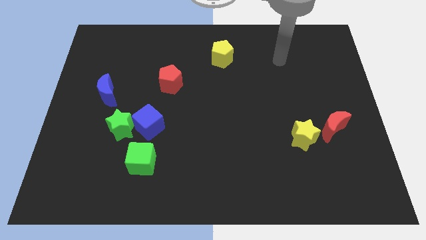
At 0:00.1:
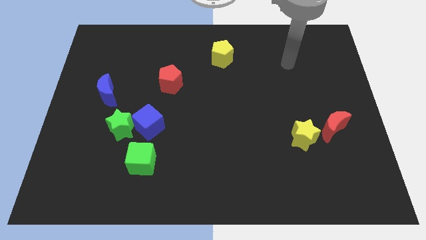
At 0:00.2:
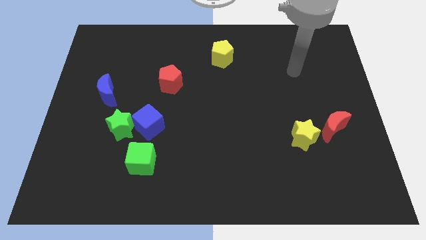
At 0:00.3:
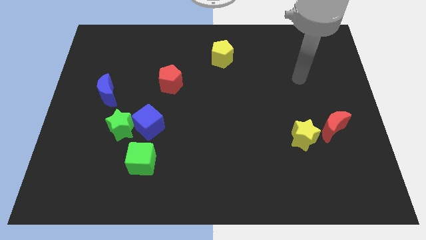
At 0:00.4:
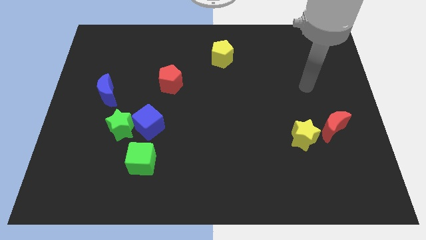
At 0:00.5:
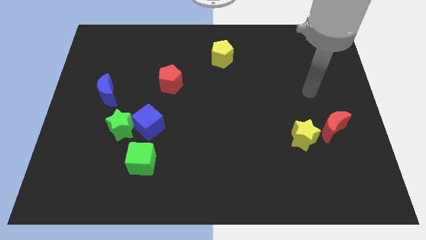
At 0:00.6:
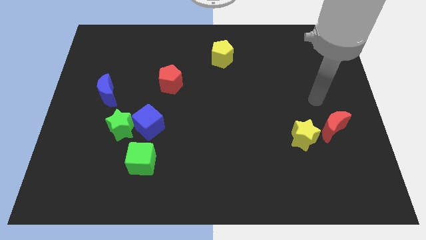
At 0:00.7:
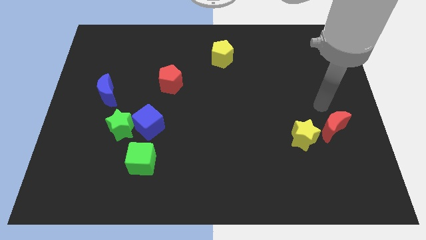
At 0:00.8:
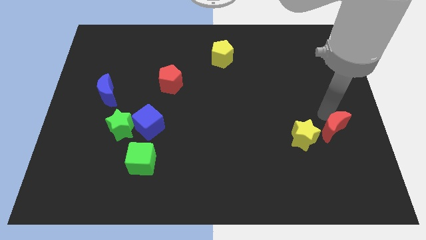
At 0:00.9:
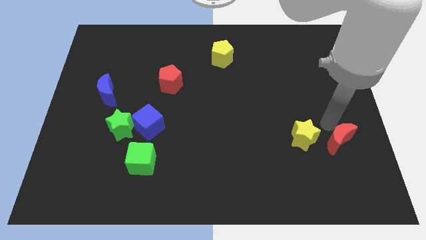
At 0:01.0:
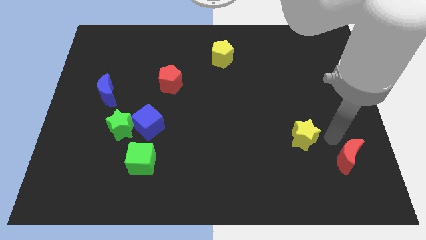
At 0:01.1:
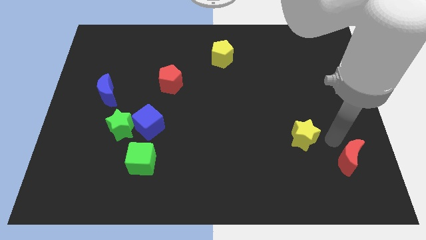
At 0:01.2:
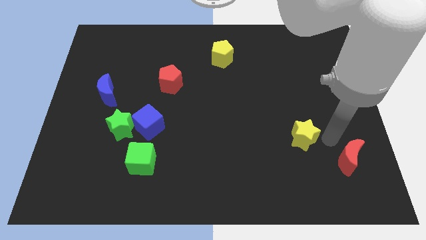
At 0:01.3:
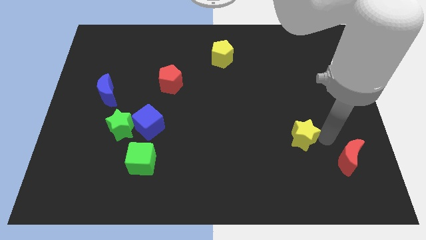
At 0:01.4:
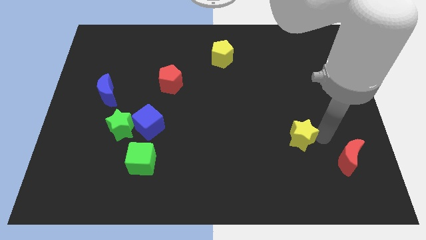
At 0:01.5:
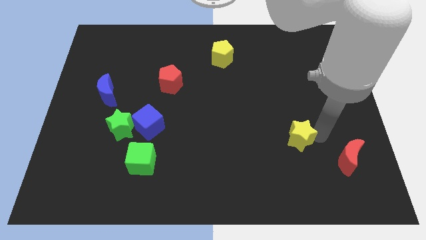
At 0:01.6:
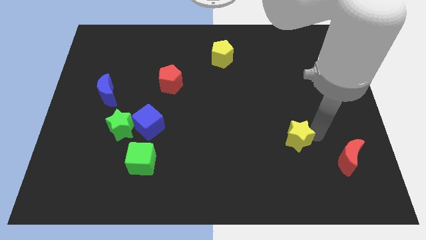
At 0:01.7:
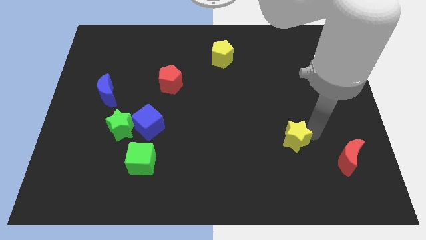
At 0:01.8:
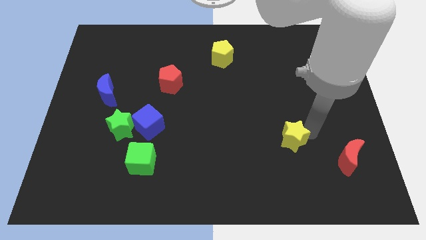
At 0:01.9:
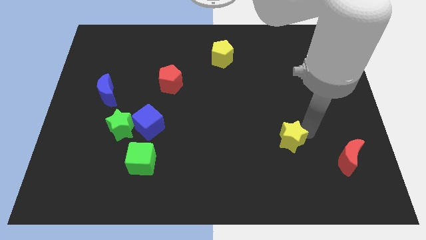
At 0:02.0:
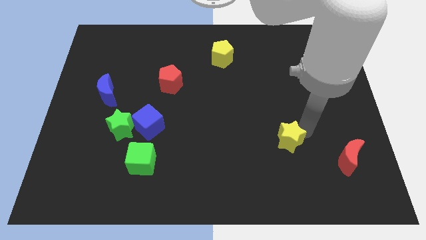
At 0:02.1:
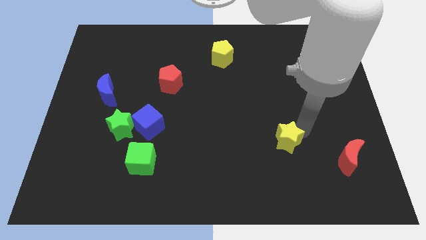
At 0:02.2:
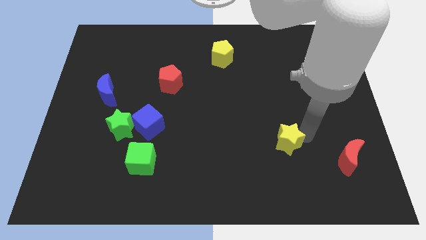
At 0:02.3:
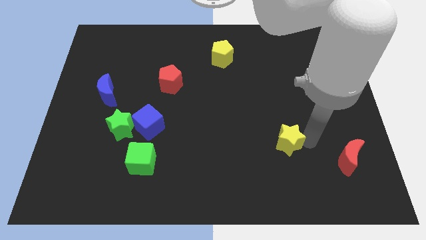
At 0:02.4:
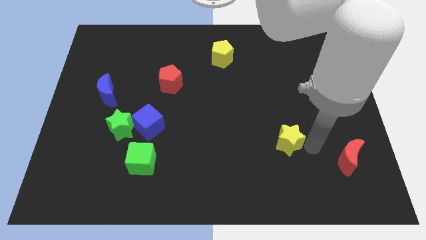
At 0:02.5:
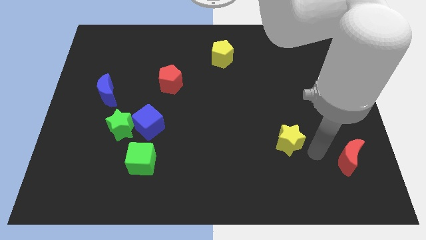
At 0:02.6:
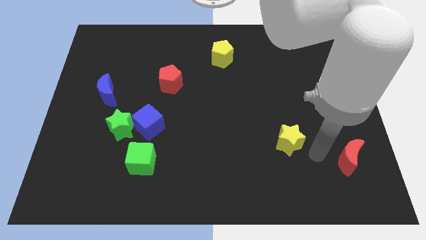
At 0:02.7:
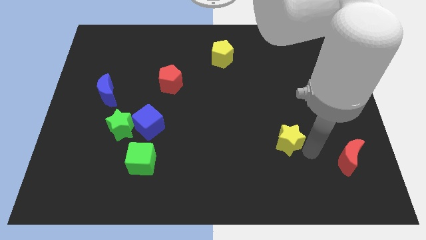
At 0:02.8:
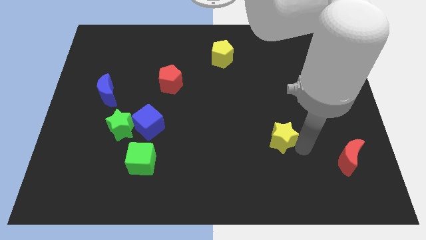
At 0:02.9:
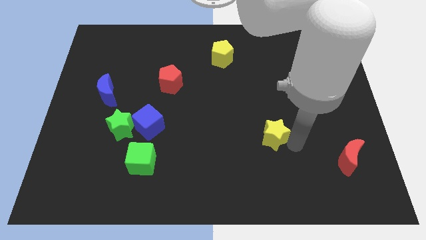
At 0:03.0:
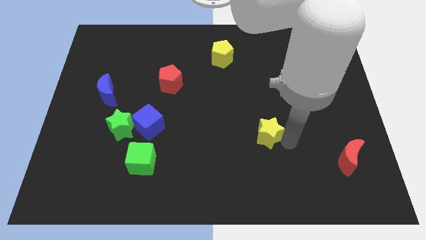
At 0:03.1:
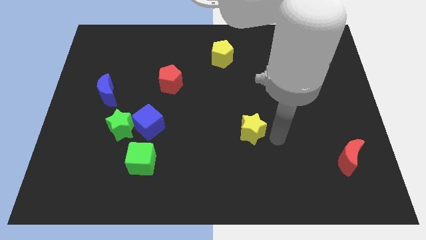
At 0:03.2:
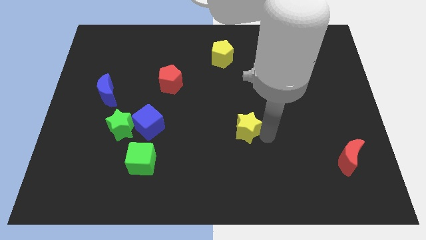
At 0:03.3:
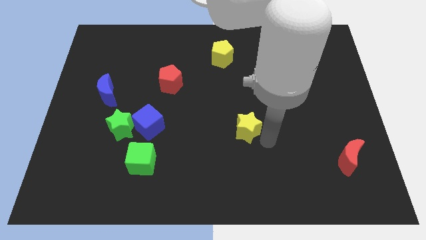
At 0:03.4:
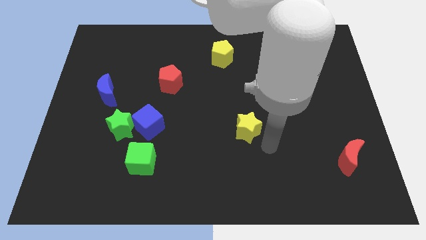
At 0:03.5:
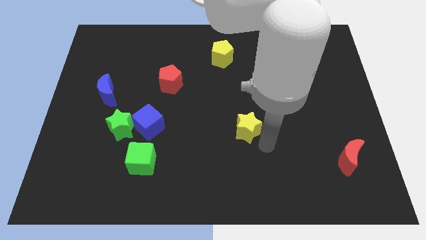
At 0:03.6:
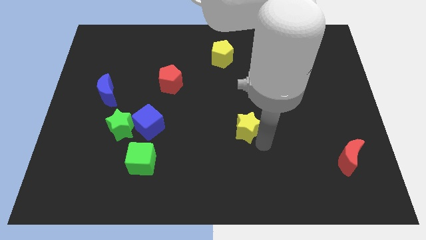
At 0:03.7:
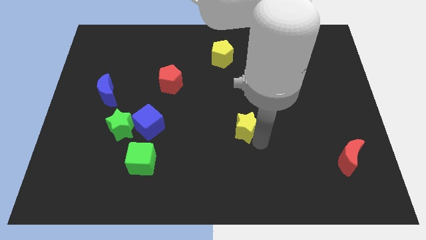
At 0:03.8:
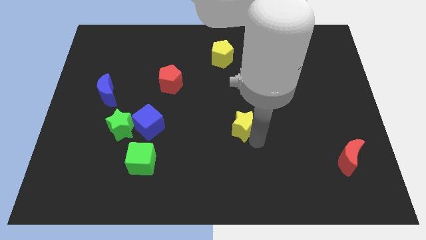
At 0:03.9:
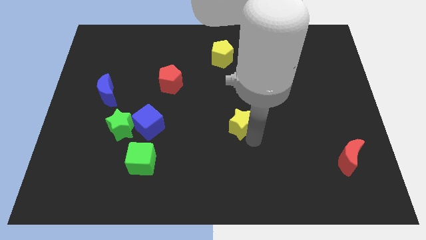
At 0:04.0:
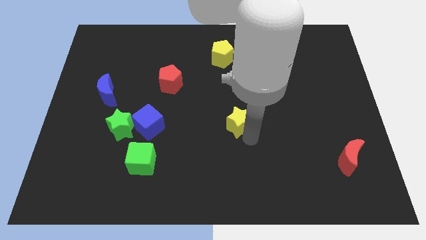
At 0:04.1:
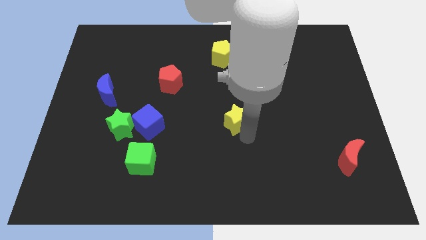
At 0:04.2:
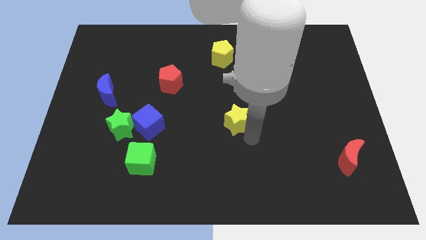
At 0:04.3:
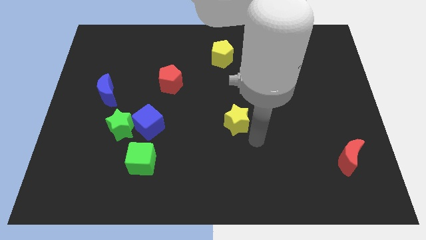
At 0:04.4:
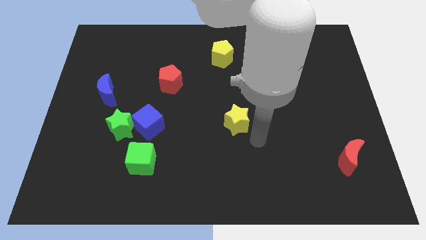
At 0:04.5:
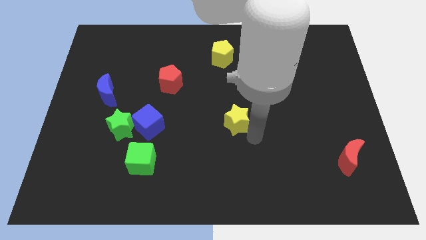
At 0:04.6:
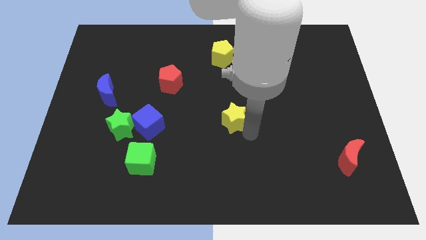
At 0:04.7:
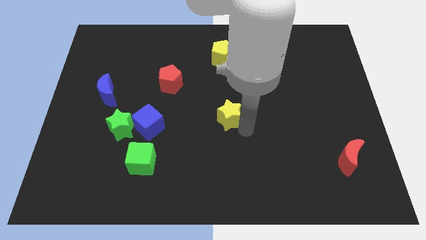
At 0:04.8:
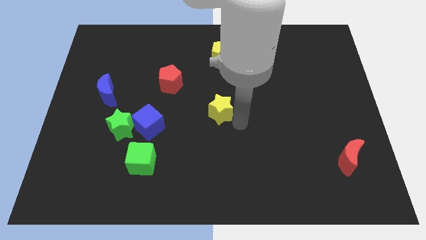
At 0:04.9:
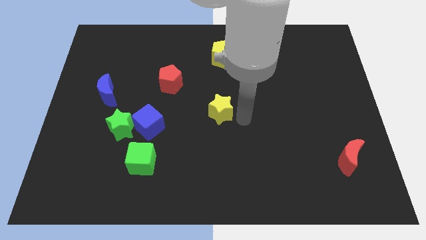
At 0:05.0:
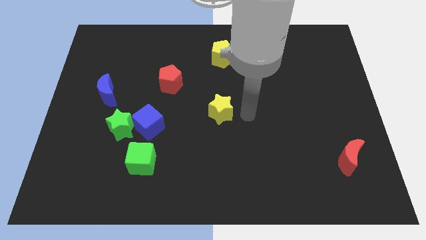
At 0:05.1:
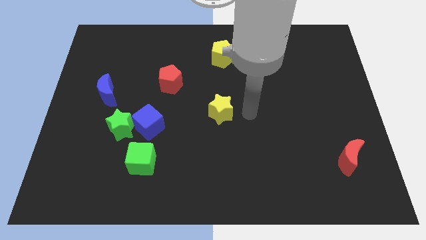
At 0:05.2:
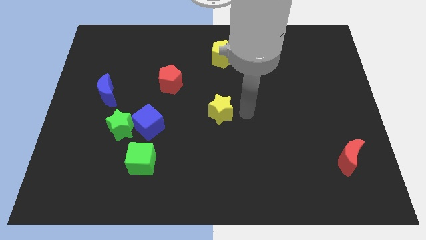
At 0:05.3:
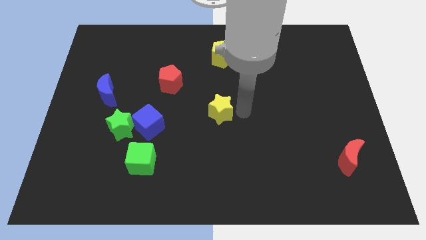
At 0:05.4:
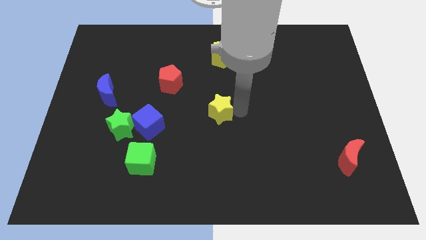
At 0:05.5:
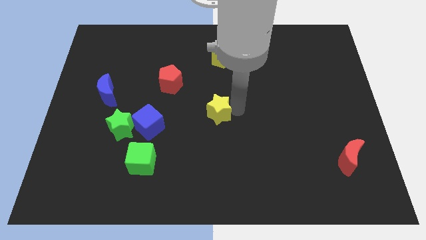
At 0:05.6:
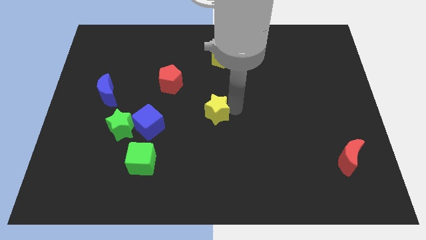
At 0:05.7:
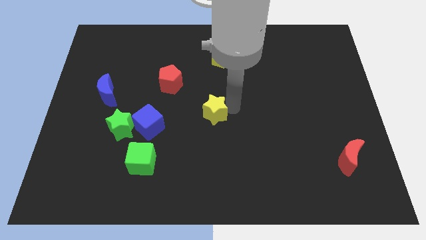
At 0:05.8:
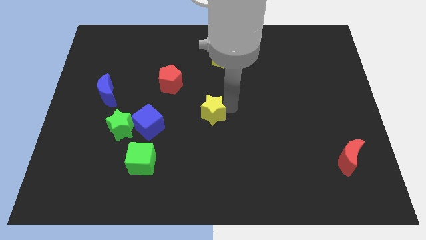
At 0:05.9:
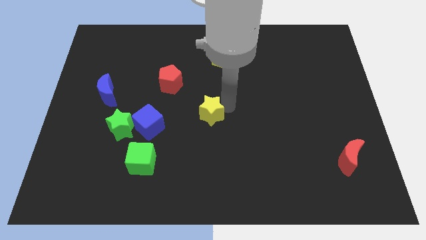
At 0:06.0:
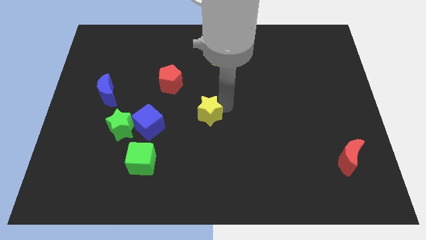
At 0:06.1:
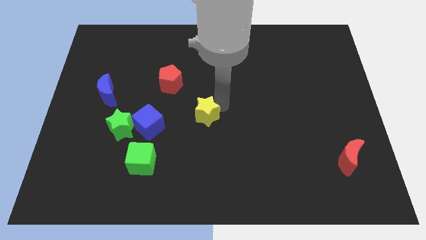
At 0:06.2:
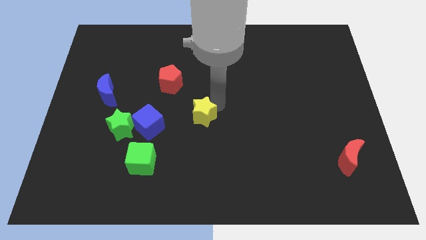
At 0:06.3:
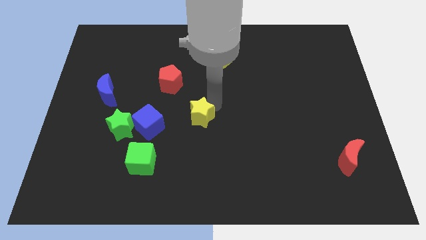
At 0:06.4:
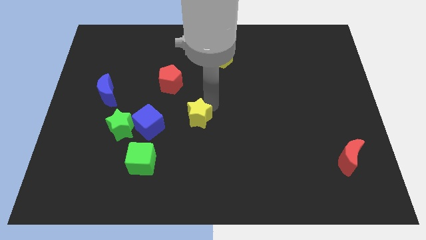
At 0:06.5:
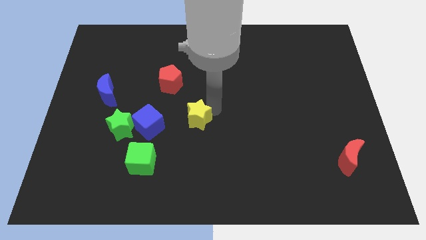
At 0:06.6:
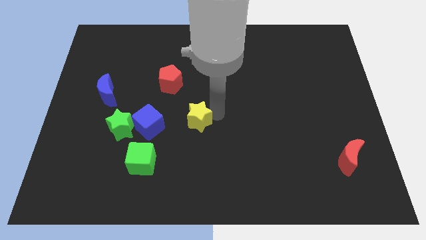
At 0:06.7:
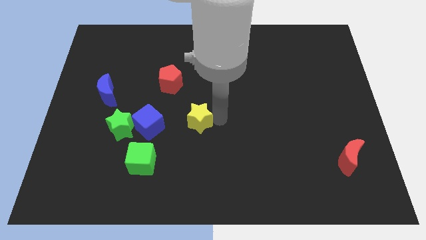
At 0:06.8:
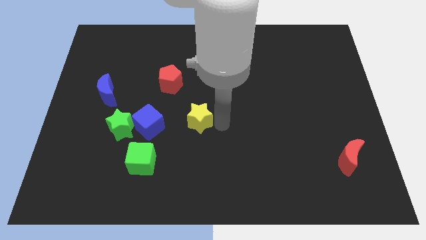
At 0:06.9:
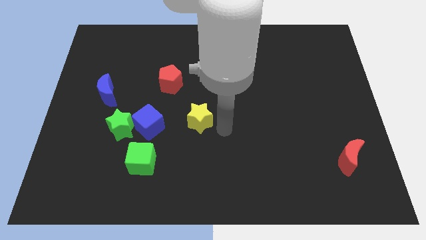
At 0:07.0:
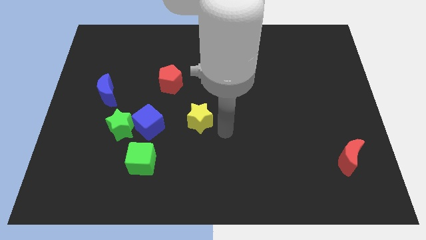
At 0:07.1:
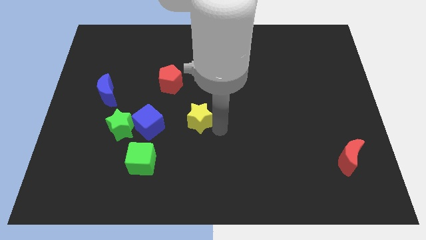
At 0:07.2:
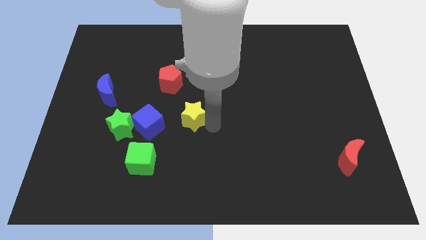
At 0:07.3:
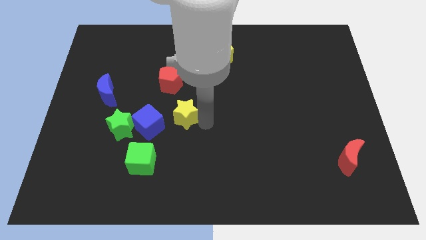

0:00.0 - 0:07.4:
push the yellow star diagonally up and to the right of the blue cube

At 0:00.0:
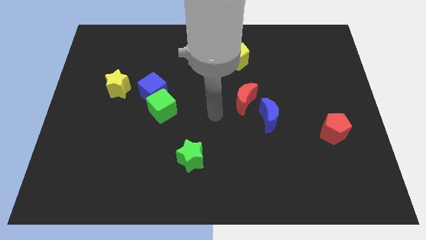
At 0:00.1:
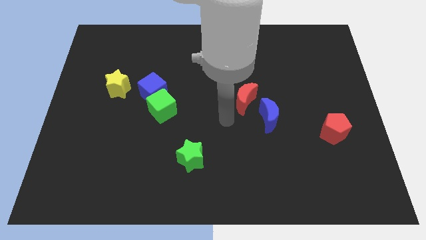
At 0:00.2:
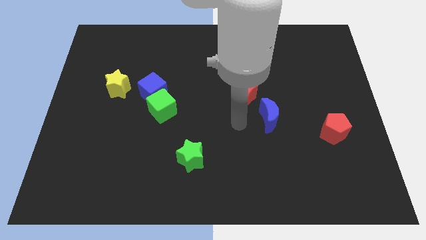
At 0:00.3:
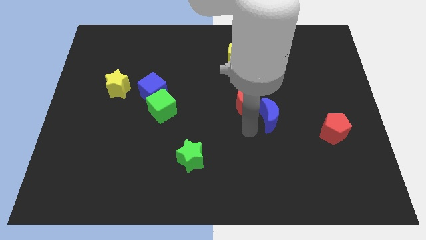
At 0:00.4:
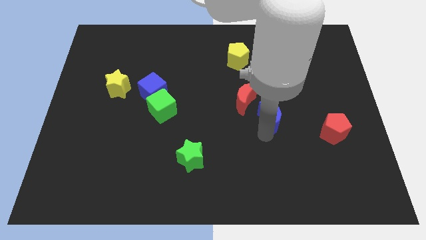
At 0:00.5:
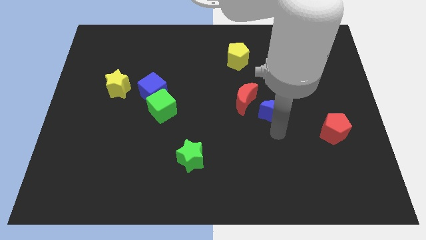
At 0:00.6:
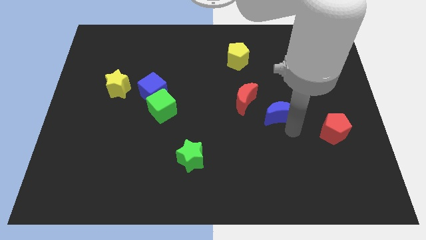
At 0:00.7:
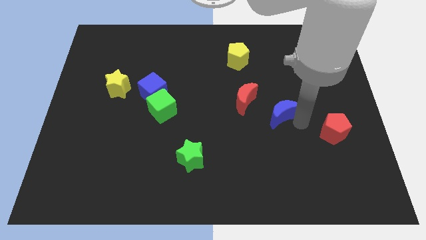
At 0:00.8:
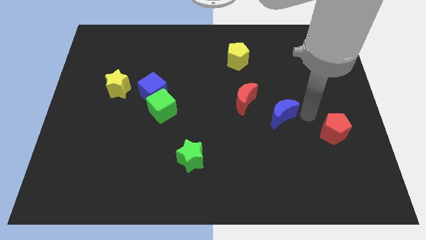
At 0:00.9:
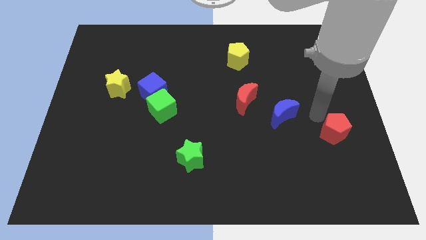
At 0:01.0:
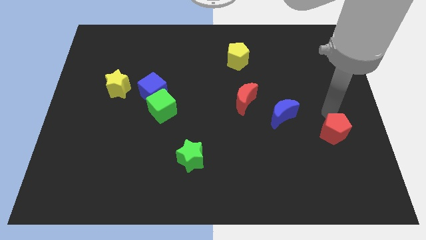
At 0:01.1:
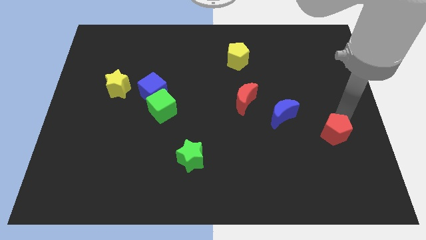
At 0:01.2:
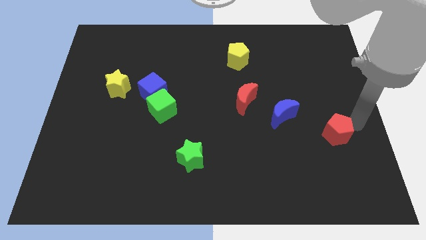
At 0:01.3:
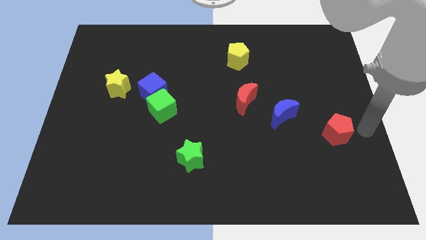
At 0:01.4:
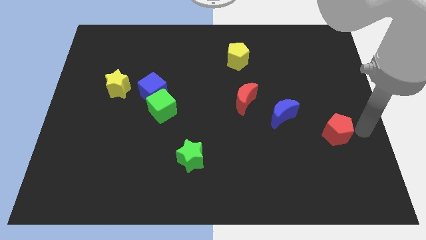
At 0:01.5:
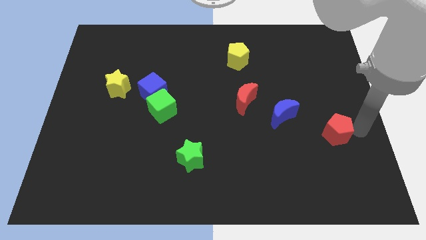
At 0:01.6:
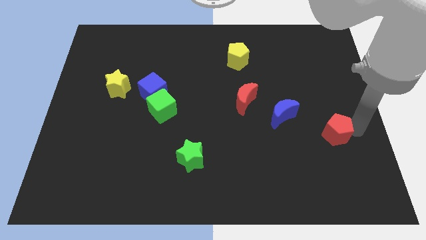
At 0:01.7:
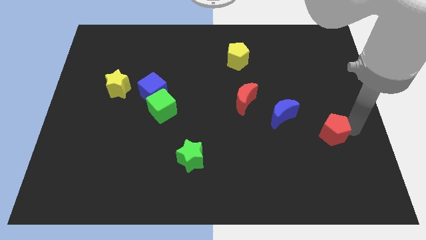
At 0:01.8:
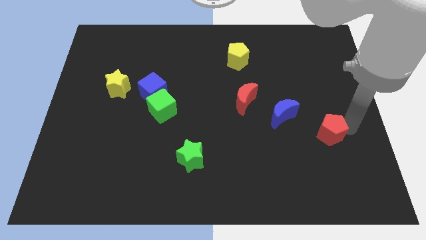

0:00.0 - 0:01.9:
push the red pentagon to the bottom right side of the blue moon
